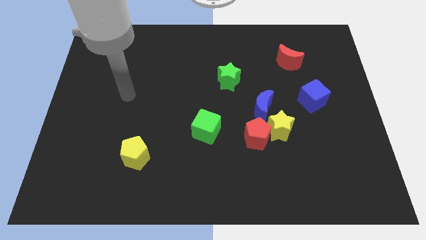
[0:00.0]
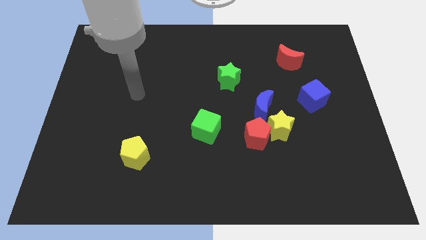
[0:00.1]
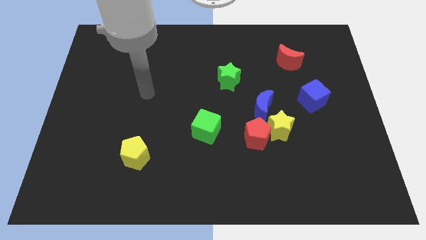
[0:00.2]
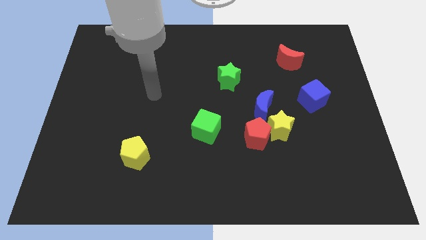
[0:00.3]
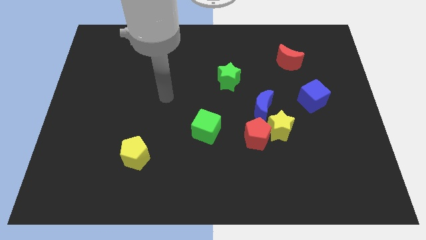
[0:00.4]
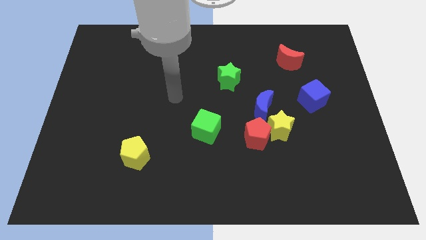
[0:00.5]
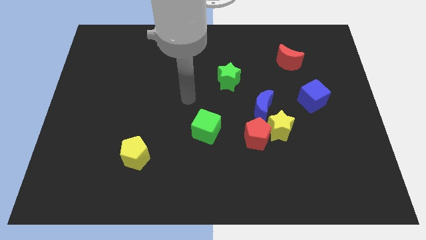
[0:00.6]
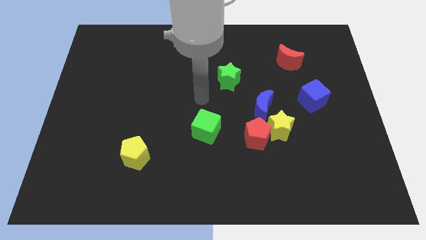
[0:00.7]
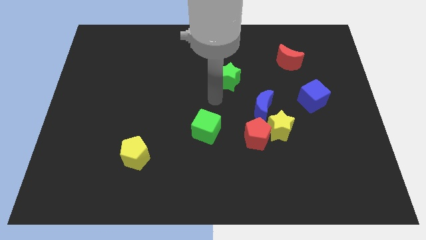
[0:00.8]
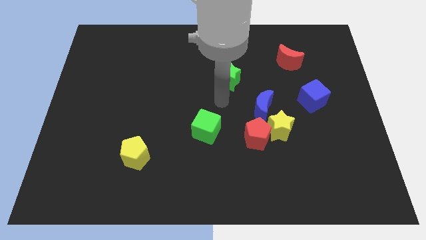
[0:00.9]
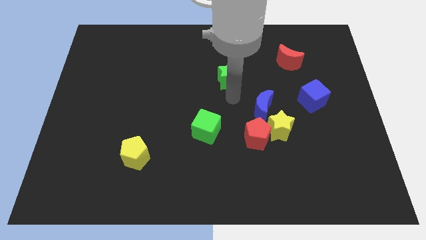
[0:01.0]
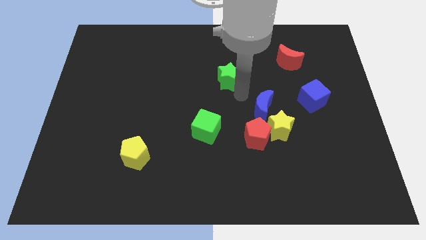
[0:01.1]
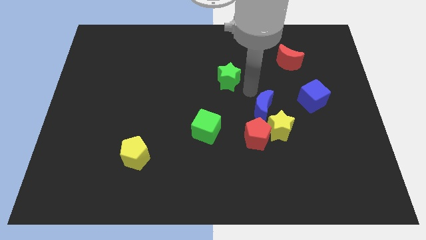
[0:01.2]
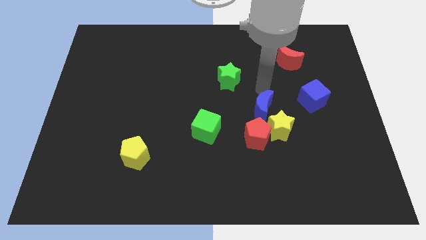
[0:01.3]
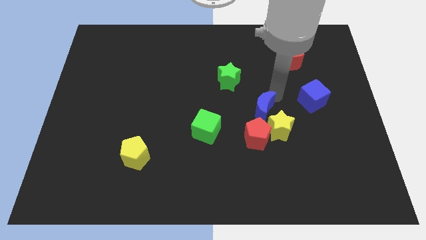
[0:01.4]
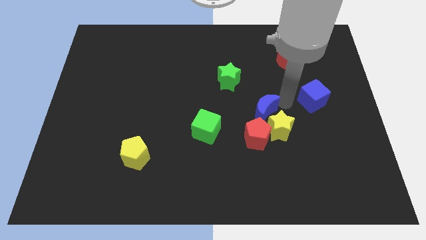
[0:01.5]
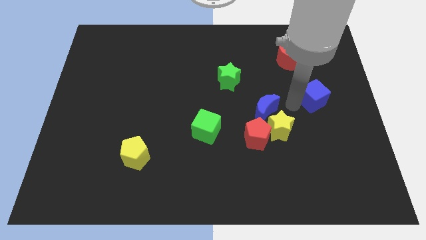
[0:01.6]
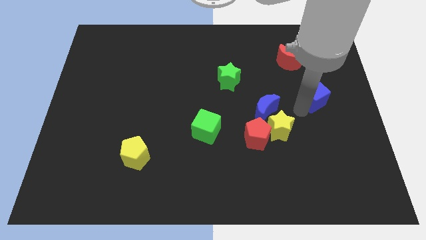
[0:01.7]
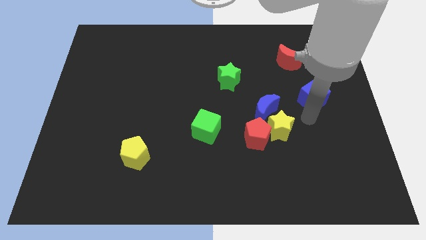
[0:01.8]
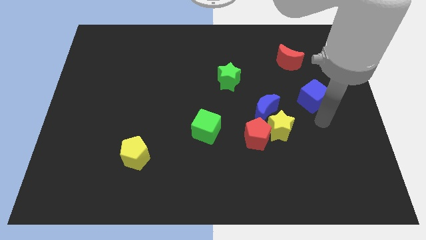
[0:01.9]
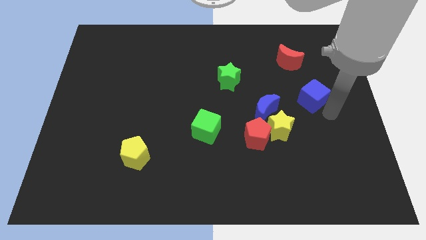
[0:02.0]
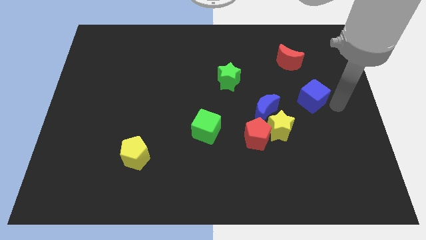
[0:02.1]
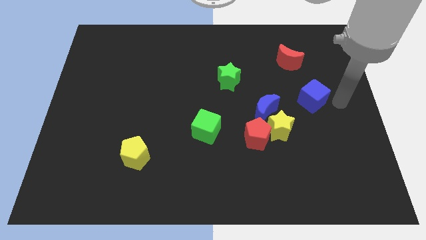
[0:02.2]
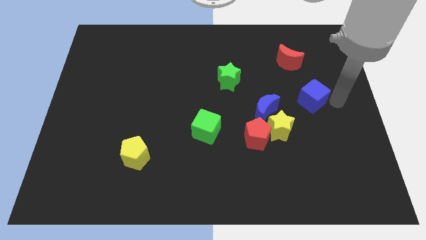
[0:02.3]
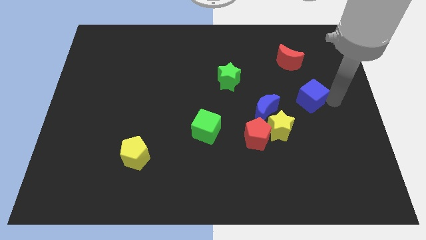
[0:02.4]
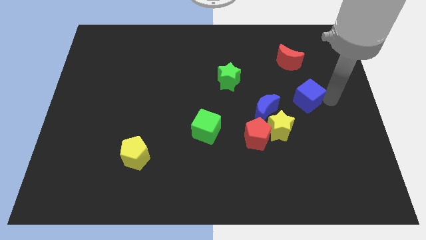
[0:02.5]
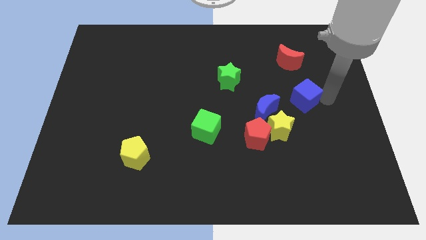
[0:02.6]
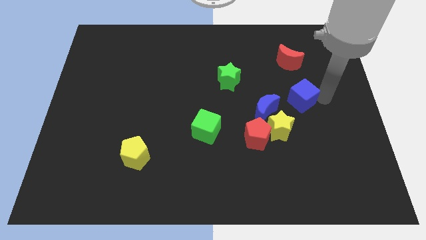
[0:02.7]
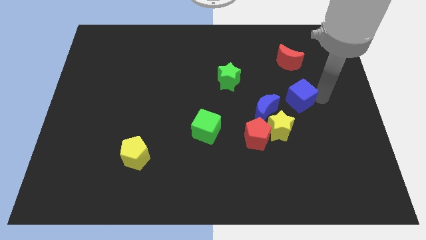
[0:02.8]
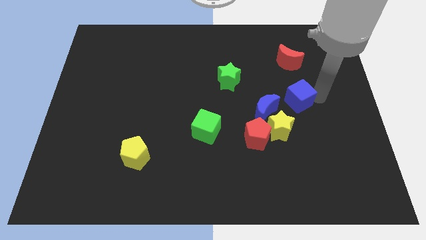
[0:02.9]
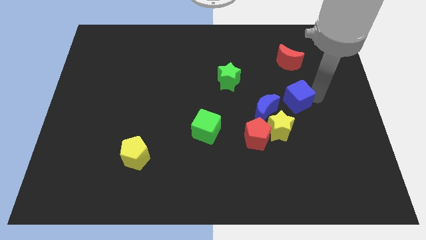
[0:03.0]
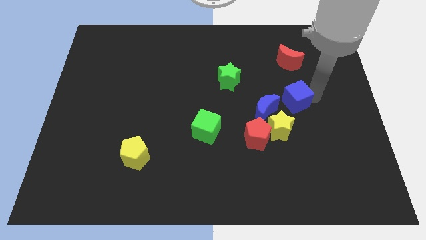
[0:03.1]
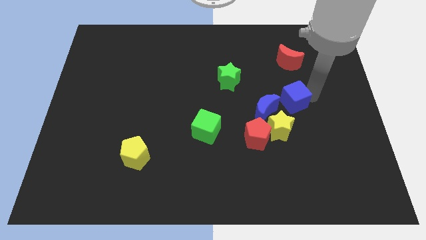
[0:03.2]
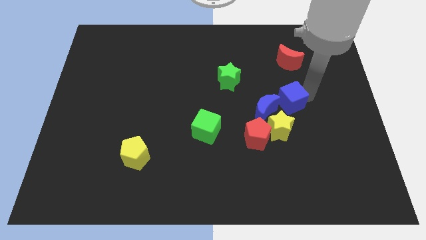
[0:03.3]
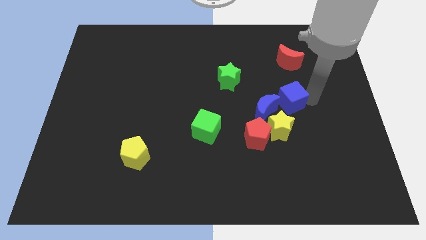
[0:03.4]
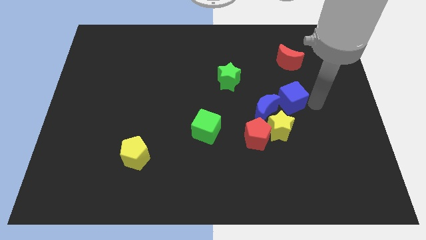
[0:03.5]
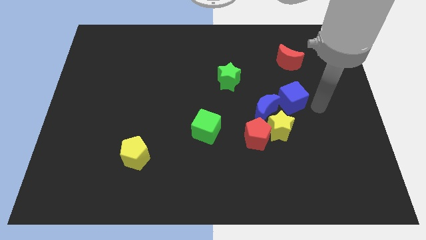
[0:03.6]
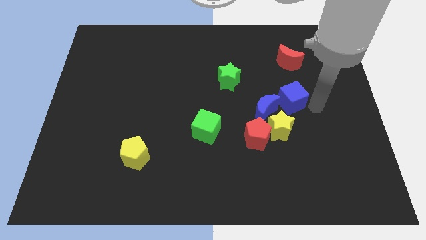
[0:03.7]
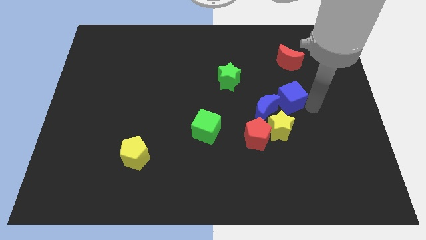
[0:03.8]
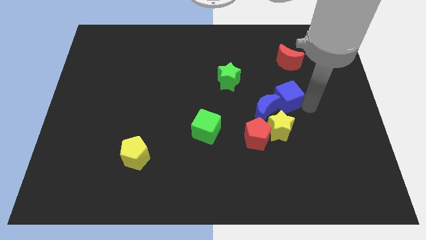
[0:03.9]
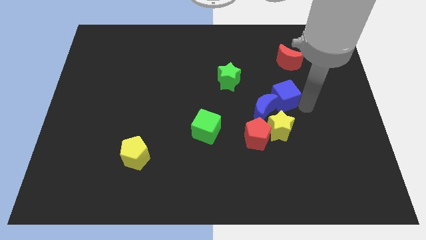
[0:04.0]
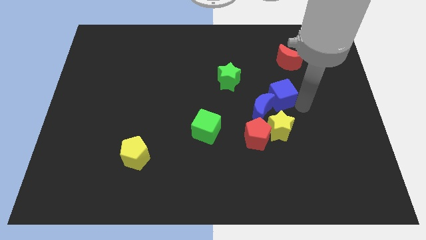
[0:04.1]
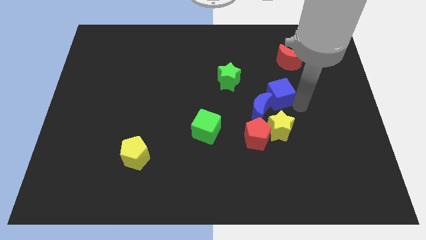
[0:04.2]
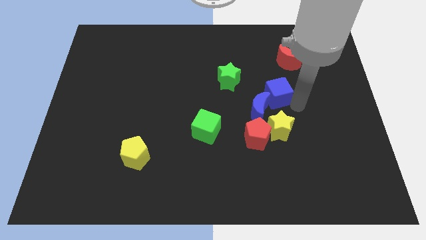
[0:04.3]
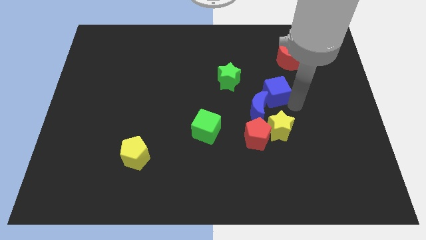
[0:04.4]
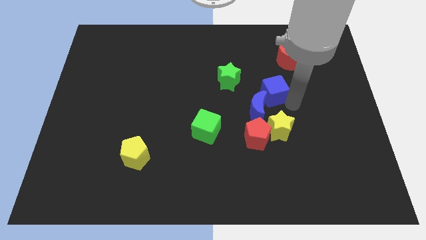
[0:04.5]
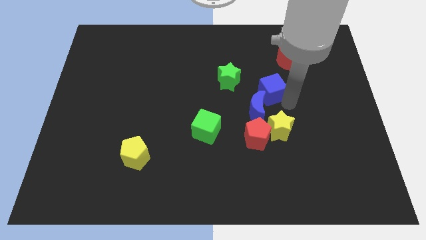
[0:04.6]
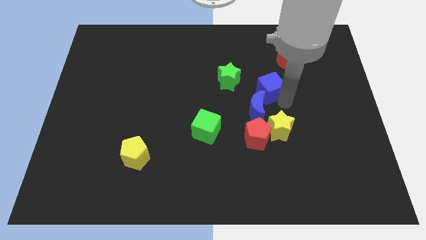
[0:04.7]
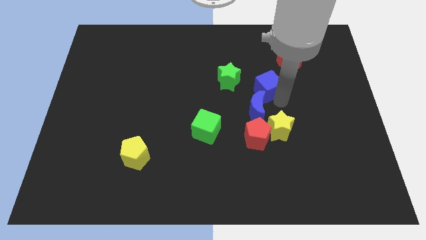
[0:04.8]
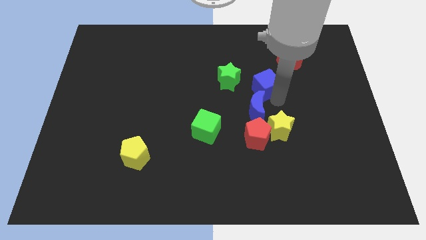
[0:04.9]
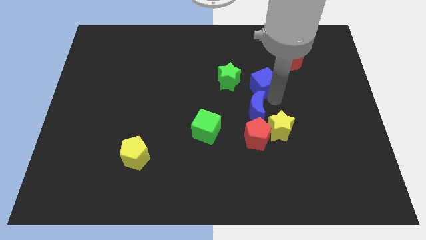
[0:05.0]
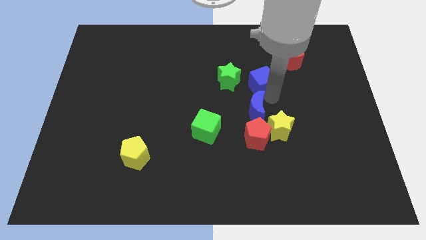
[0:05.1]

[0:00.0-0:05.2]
move the blue cube to the middle

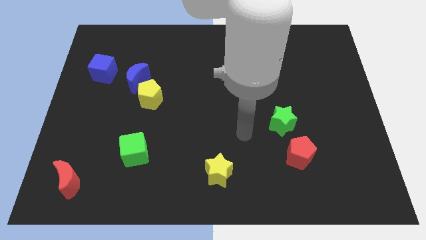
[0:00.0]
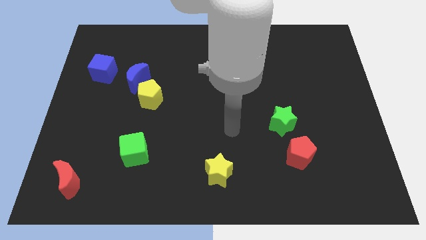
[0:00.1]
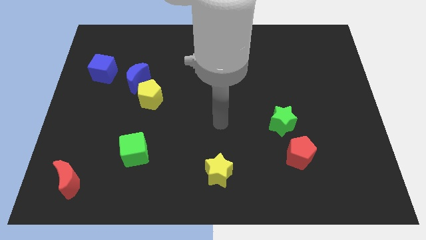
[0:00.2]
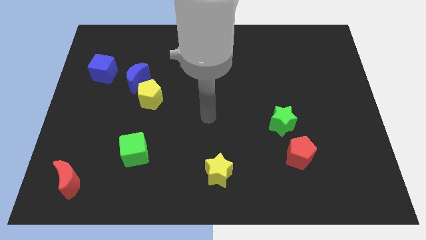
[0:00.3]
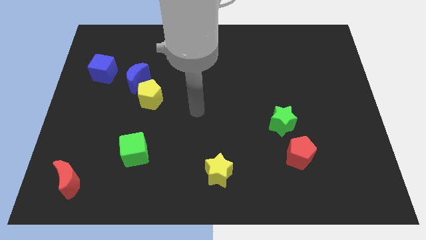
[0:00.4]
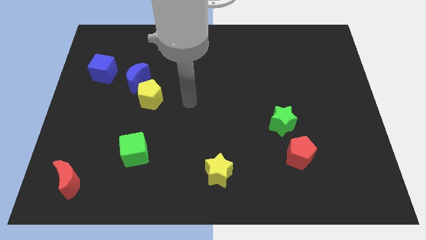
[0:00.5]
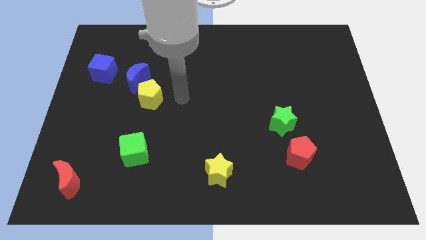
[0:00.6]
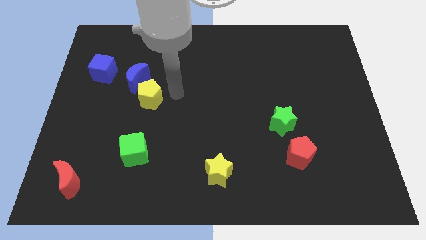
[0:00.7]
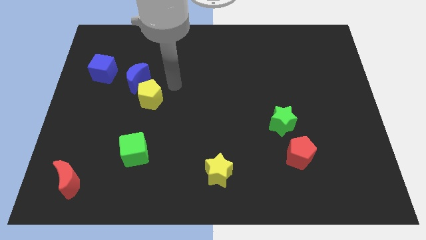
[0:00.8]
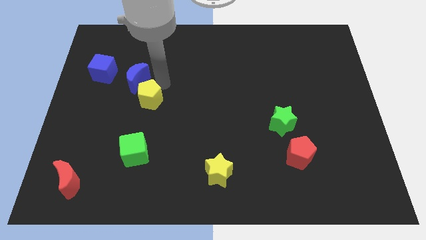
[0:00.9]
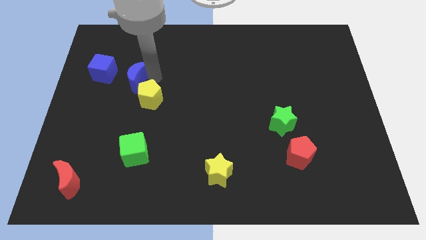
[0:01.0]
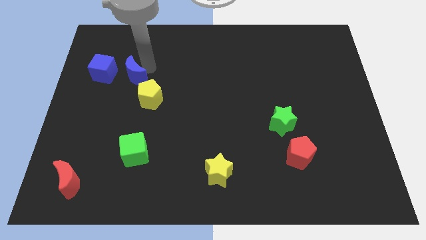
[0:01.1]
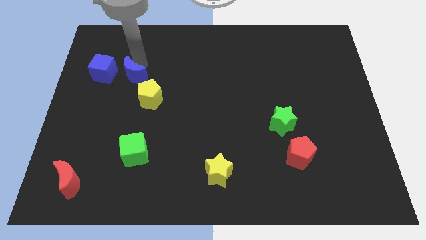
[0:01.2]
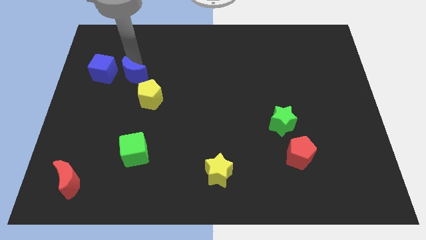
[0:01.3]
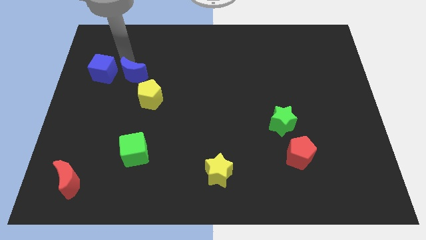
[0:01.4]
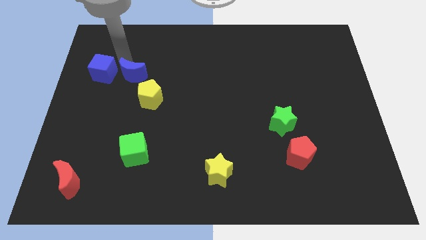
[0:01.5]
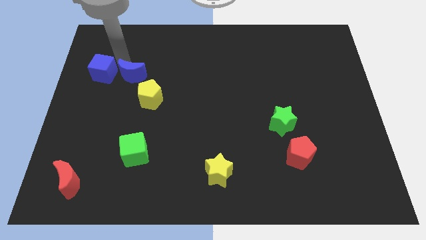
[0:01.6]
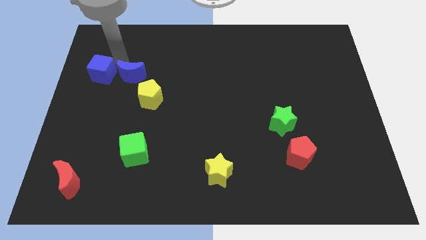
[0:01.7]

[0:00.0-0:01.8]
slide the blue cube to the left side
